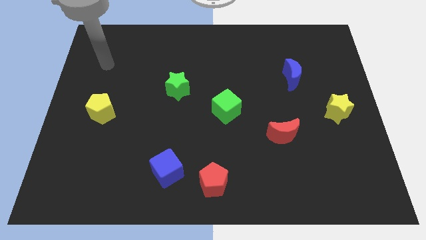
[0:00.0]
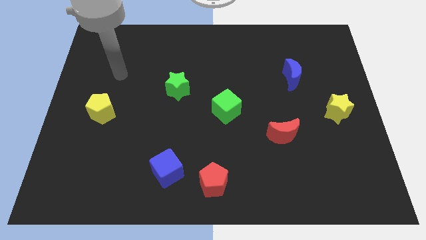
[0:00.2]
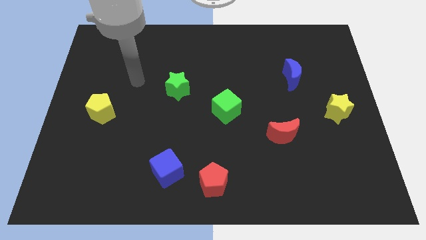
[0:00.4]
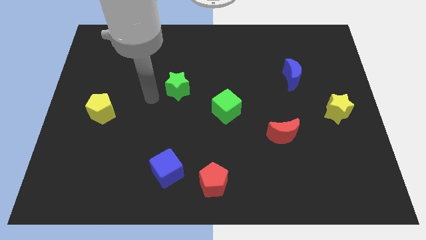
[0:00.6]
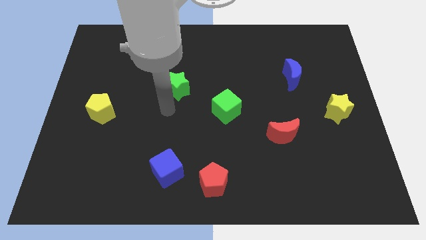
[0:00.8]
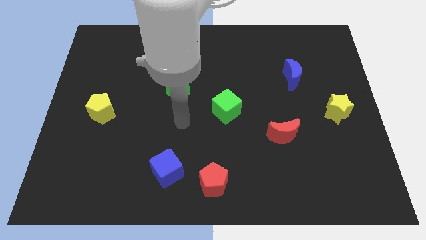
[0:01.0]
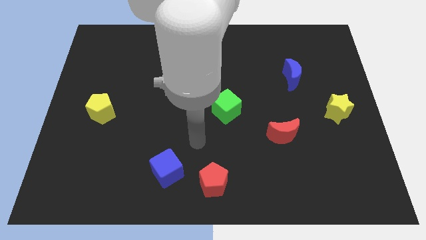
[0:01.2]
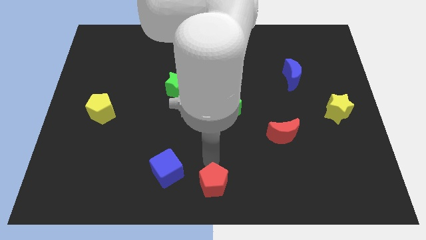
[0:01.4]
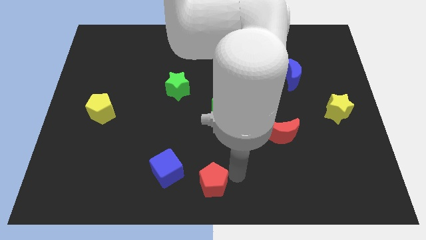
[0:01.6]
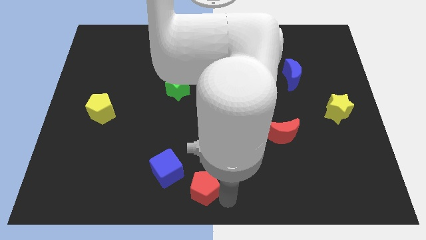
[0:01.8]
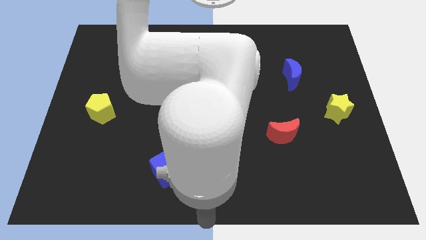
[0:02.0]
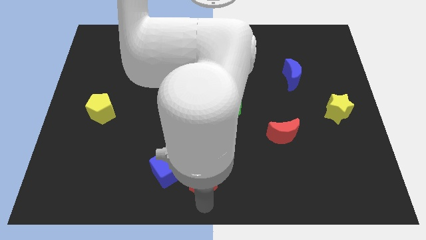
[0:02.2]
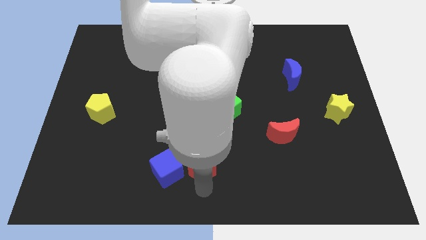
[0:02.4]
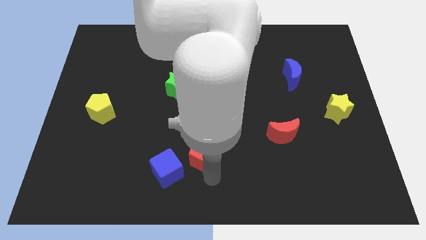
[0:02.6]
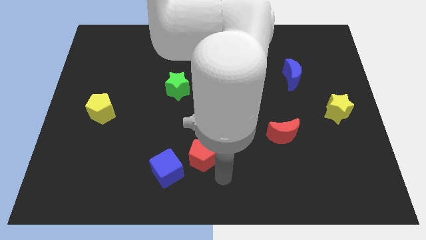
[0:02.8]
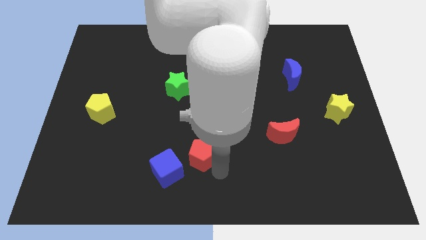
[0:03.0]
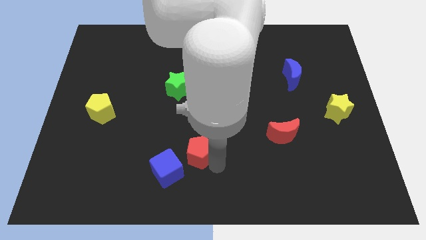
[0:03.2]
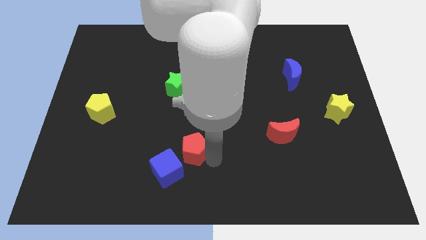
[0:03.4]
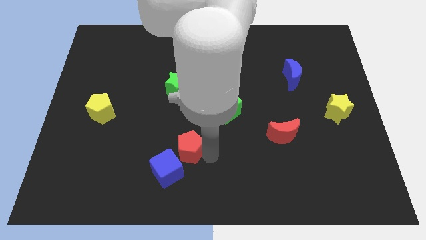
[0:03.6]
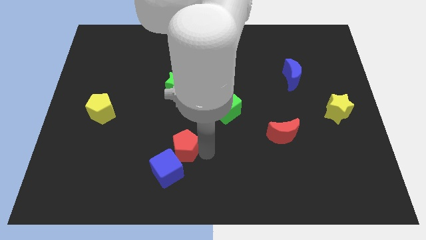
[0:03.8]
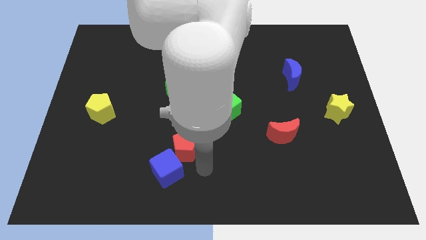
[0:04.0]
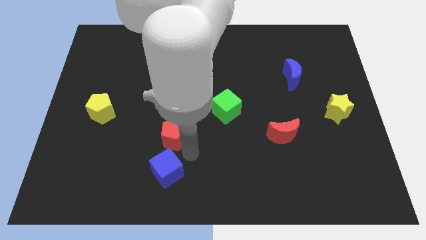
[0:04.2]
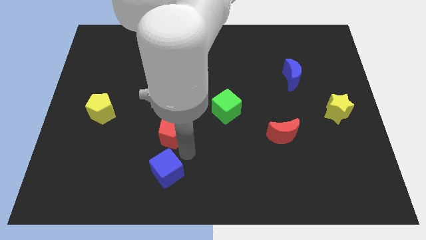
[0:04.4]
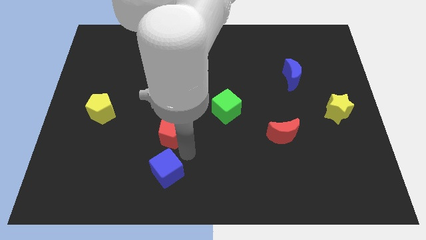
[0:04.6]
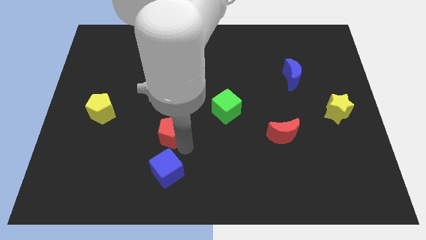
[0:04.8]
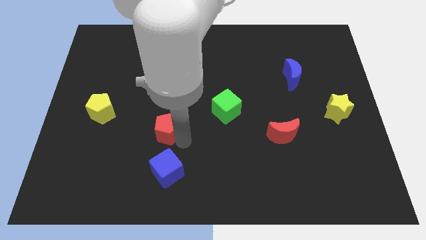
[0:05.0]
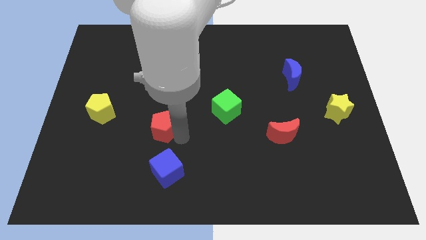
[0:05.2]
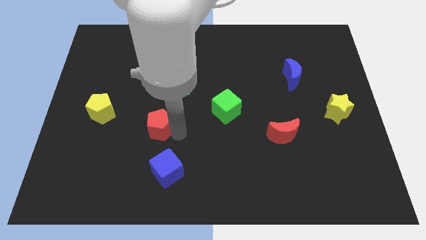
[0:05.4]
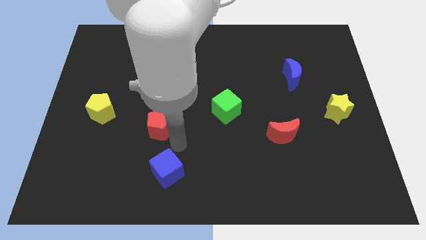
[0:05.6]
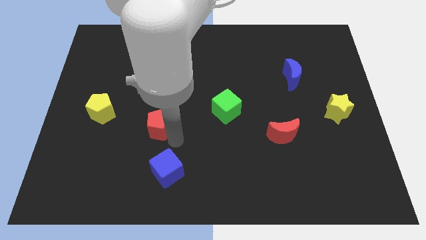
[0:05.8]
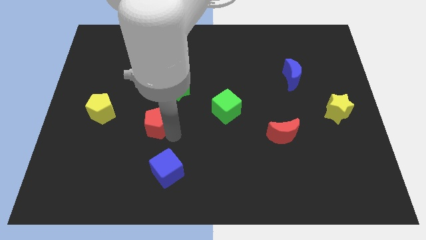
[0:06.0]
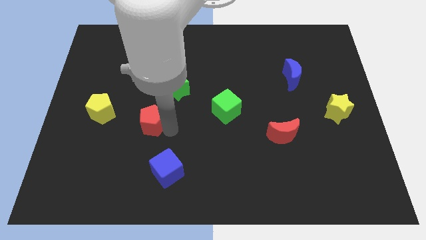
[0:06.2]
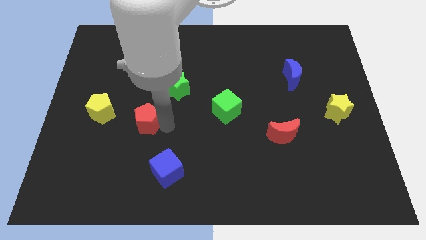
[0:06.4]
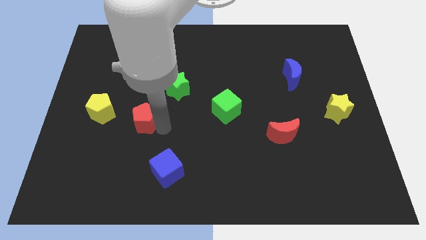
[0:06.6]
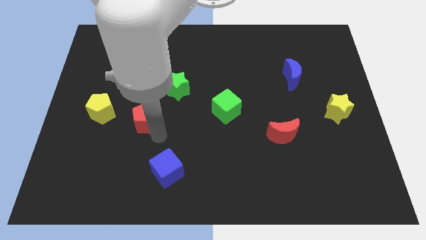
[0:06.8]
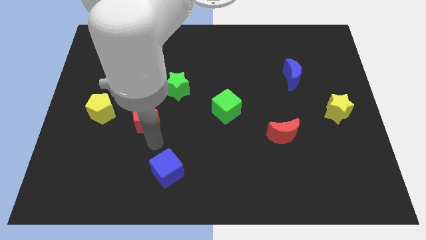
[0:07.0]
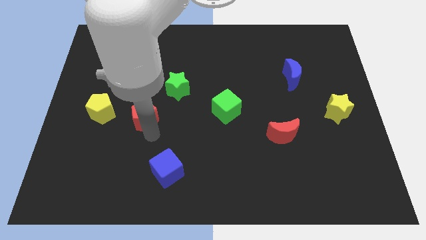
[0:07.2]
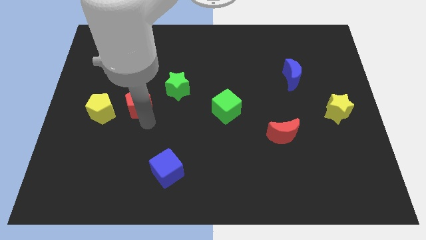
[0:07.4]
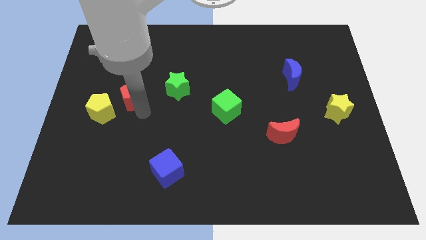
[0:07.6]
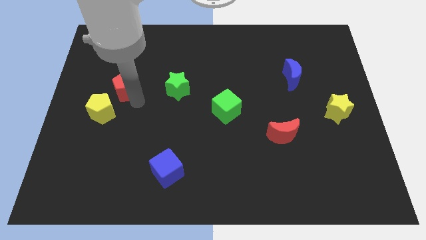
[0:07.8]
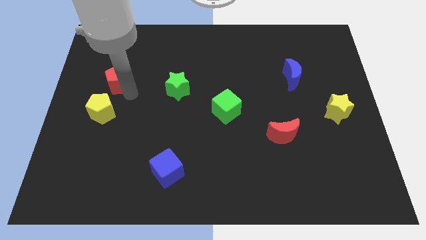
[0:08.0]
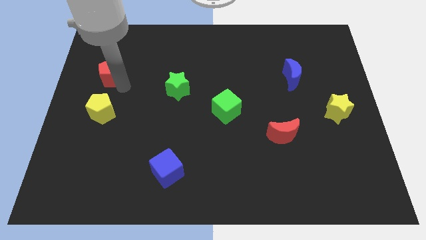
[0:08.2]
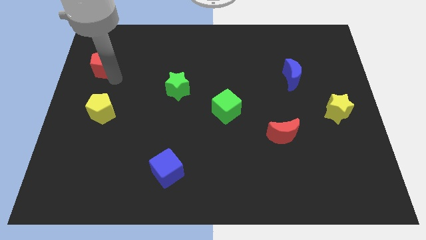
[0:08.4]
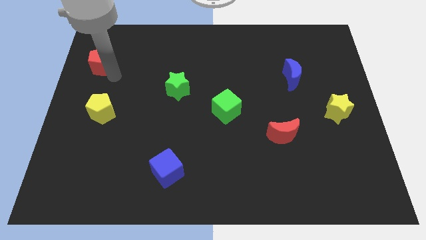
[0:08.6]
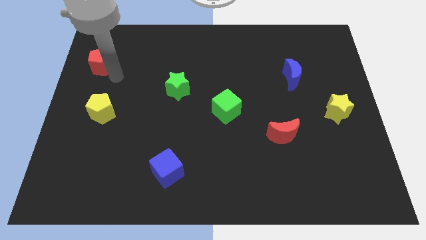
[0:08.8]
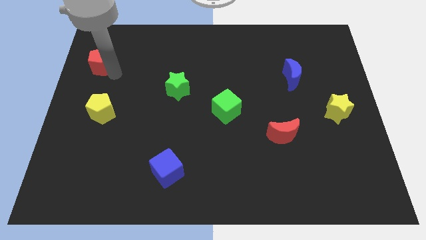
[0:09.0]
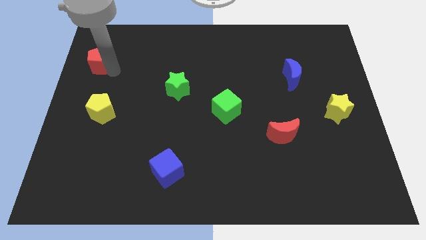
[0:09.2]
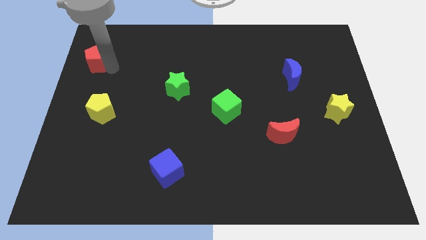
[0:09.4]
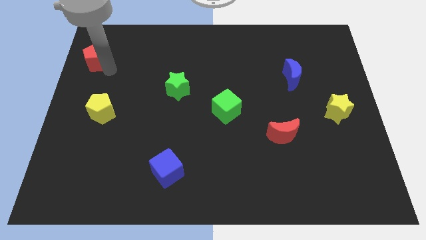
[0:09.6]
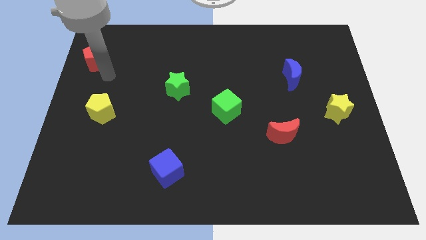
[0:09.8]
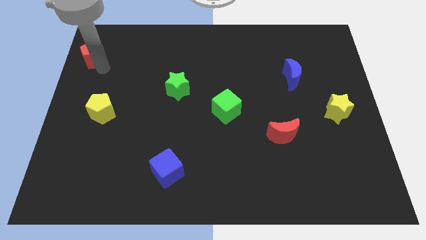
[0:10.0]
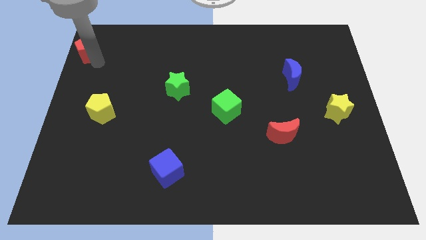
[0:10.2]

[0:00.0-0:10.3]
put the red pentagon to the top left

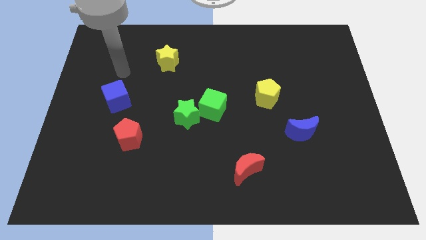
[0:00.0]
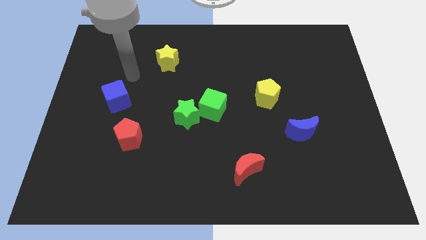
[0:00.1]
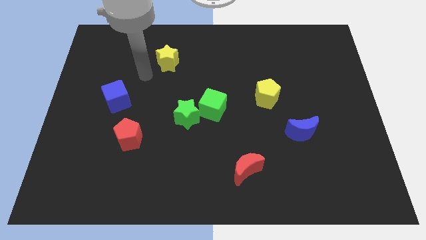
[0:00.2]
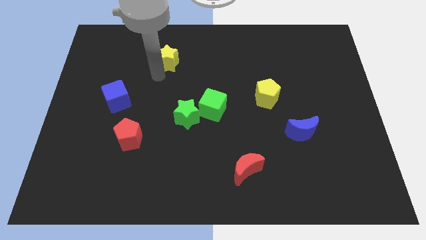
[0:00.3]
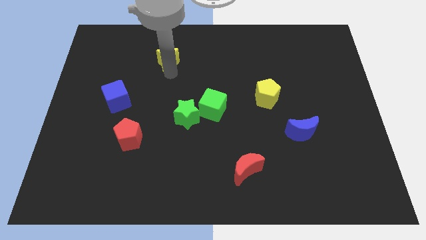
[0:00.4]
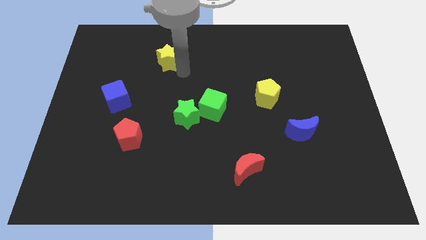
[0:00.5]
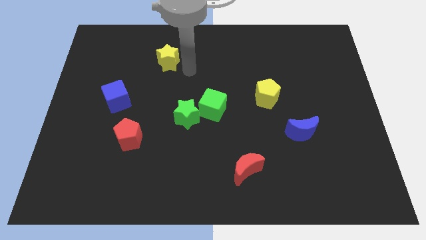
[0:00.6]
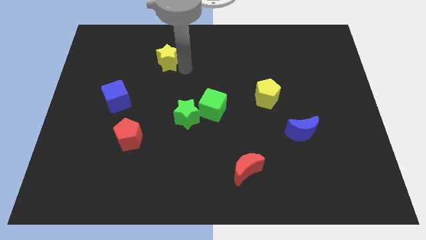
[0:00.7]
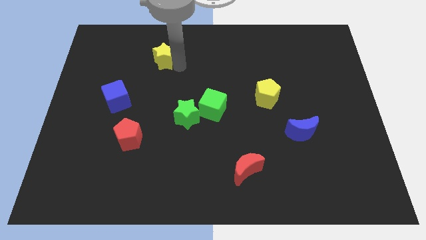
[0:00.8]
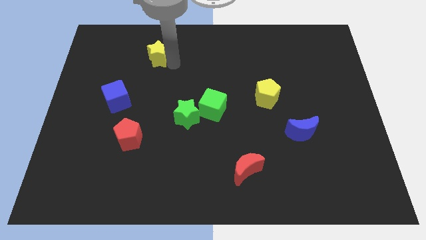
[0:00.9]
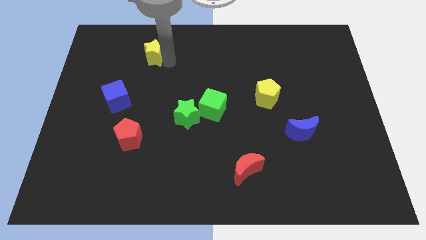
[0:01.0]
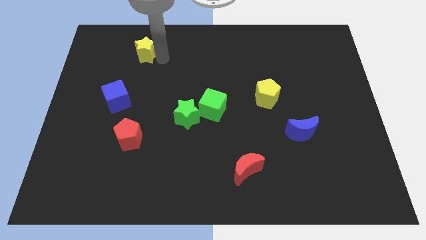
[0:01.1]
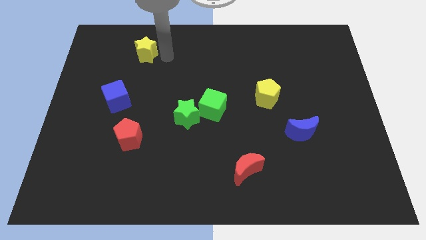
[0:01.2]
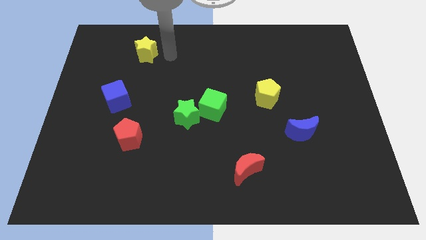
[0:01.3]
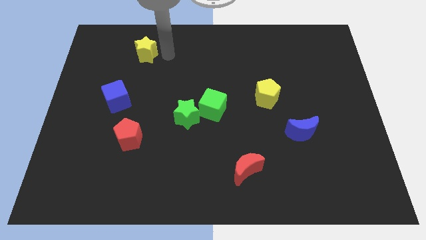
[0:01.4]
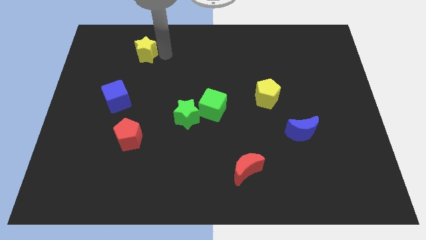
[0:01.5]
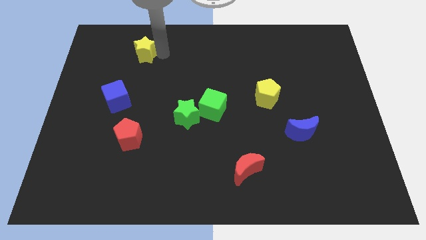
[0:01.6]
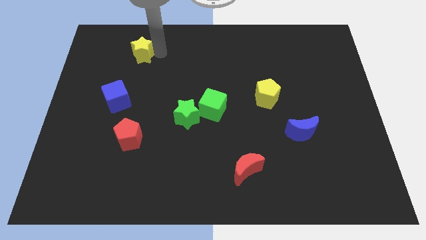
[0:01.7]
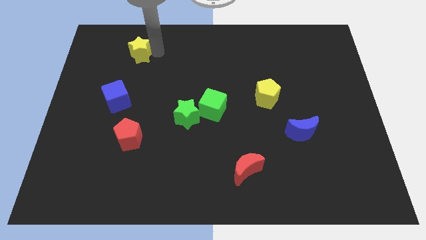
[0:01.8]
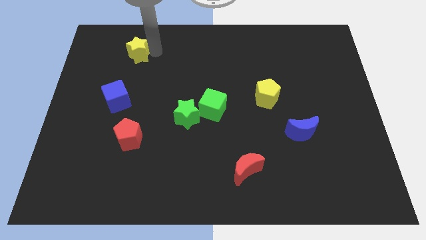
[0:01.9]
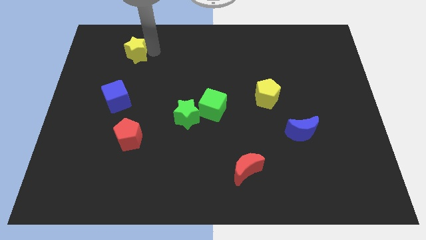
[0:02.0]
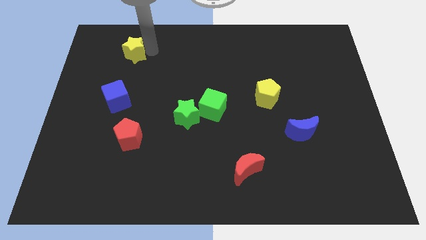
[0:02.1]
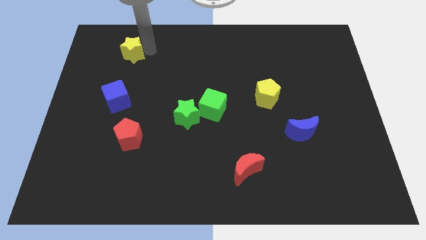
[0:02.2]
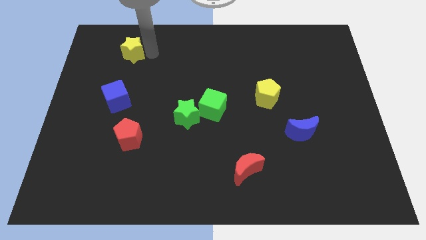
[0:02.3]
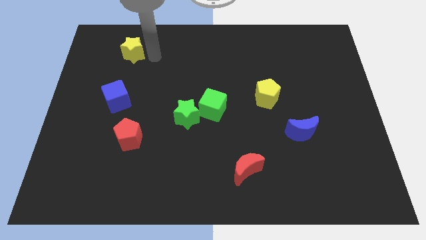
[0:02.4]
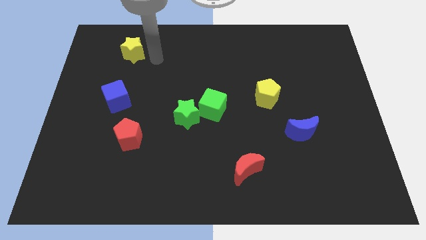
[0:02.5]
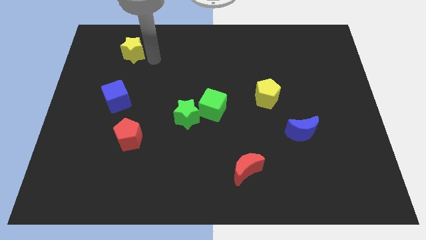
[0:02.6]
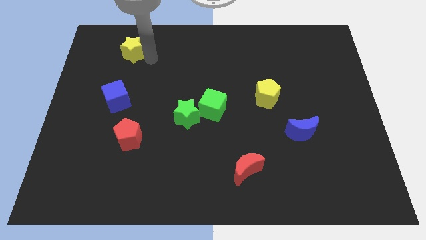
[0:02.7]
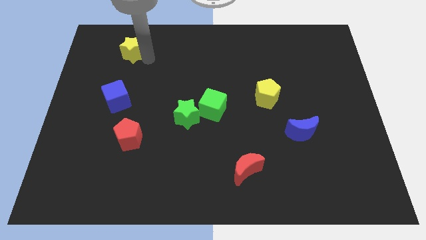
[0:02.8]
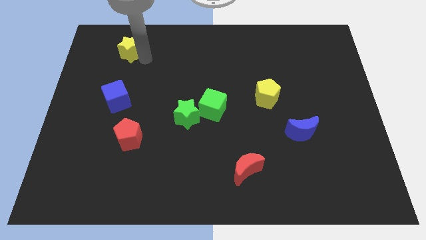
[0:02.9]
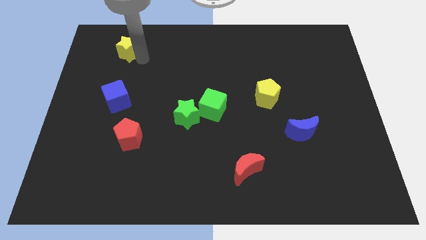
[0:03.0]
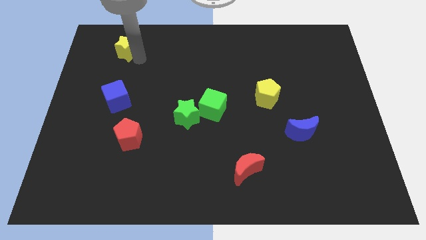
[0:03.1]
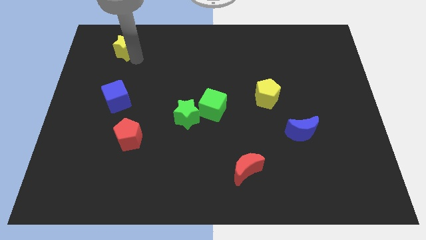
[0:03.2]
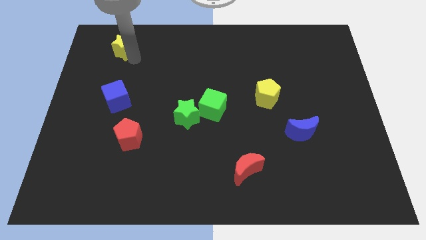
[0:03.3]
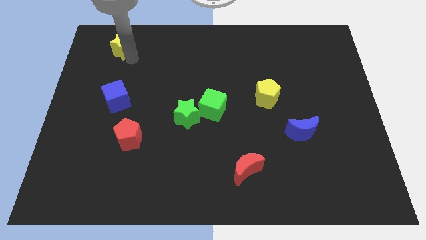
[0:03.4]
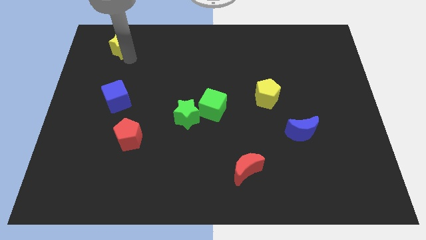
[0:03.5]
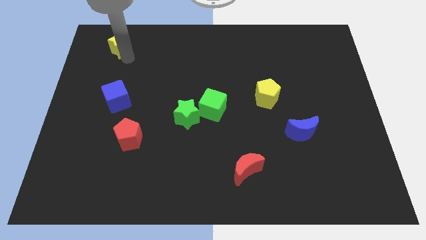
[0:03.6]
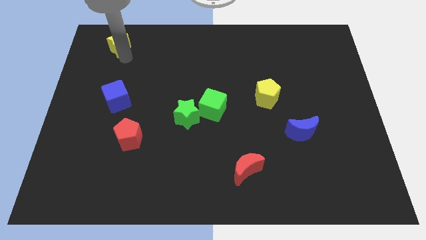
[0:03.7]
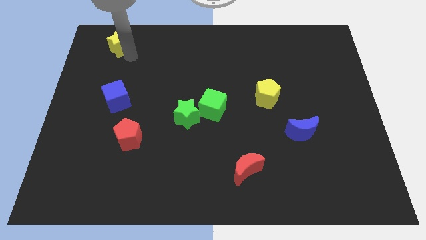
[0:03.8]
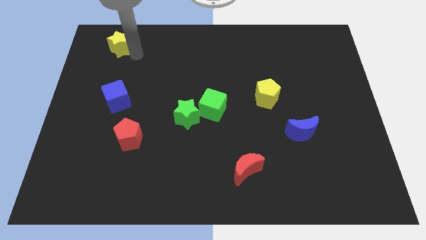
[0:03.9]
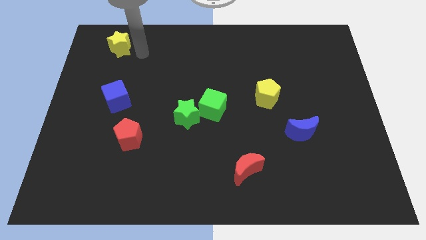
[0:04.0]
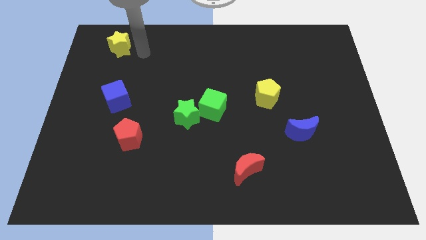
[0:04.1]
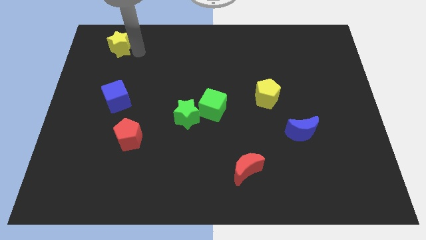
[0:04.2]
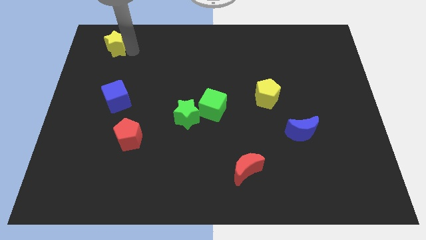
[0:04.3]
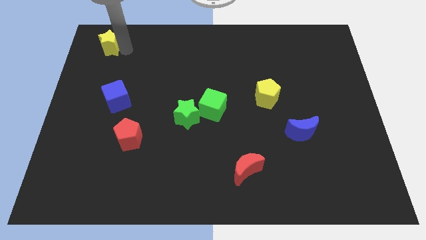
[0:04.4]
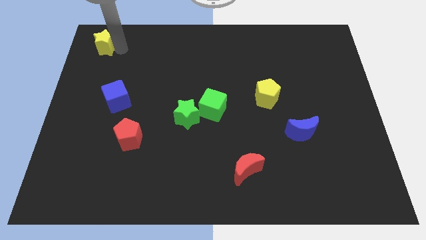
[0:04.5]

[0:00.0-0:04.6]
move the yellow star to the upper left corner
